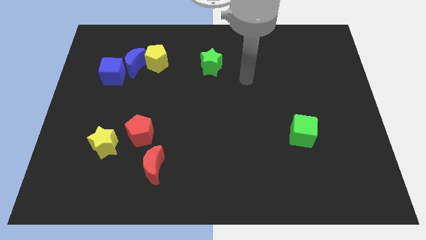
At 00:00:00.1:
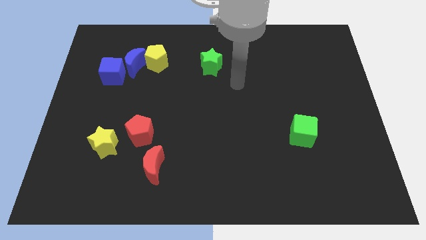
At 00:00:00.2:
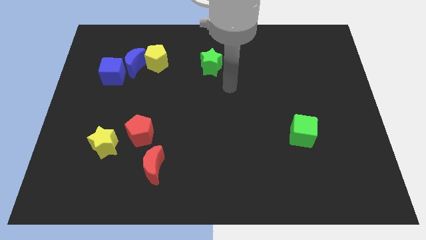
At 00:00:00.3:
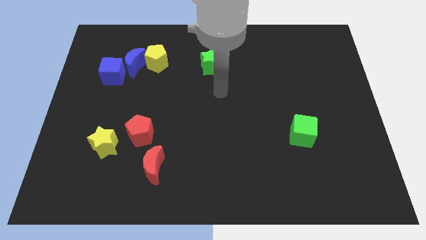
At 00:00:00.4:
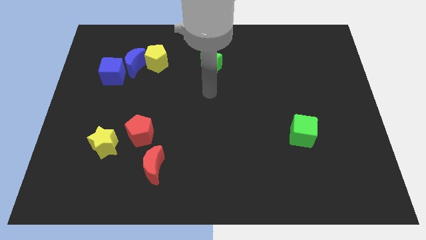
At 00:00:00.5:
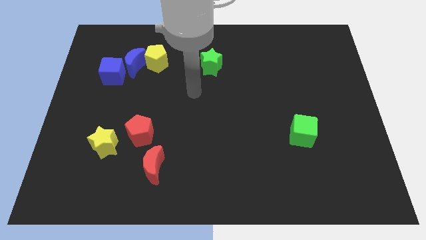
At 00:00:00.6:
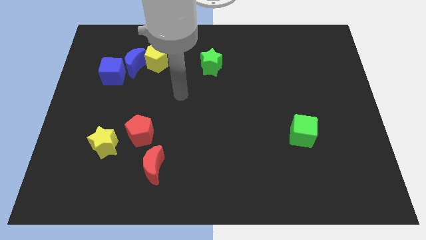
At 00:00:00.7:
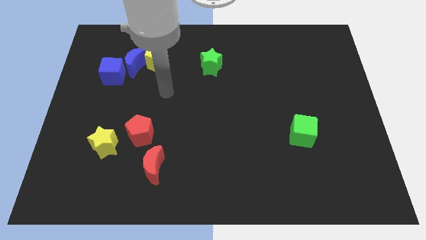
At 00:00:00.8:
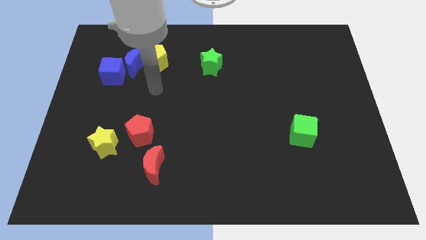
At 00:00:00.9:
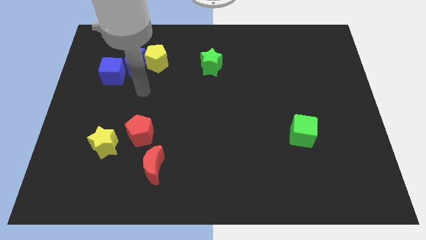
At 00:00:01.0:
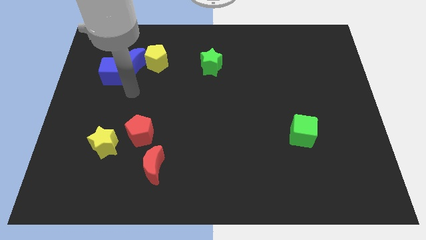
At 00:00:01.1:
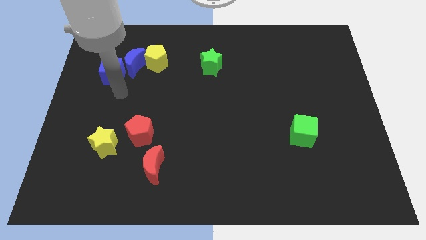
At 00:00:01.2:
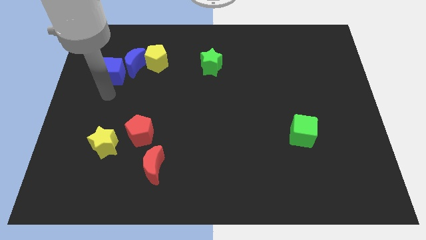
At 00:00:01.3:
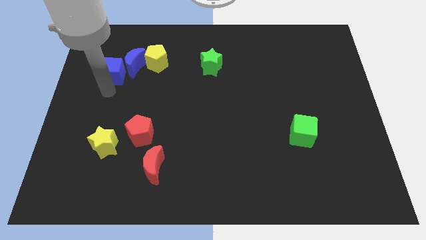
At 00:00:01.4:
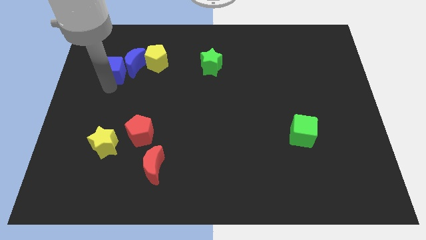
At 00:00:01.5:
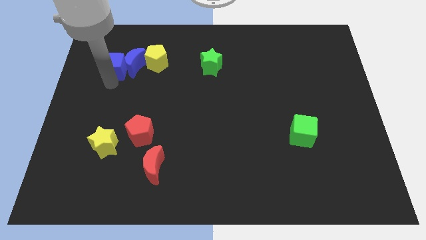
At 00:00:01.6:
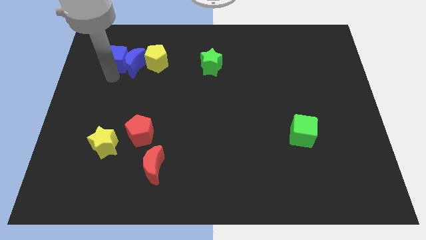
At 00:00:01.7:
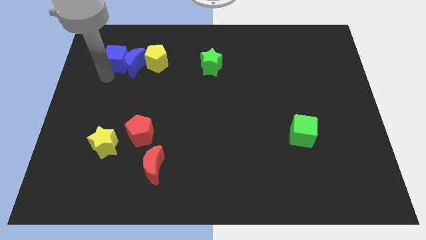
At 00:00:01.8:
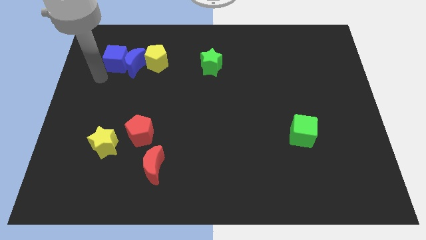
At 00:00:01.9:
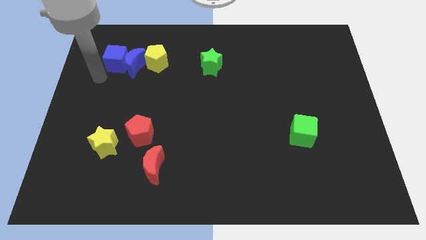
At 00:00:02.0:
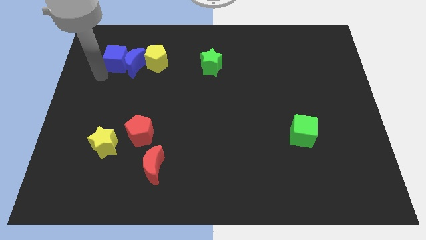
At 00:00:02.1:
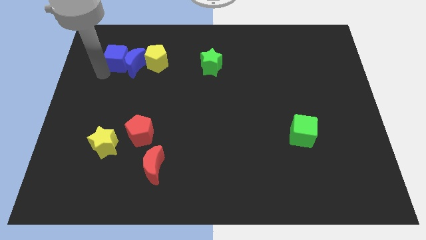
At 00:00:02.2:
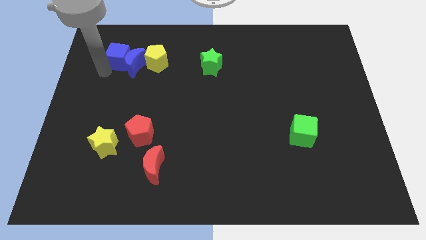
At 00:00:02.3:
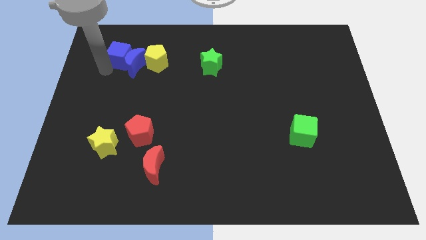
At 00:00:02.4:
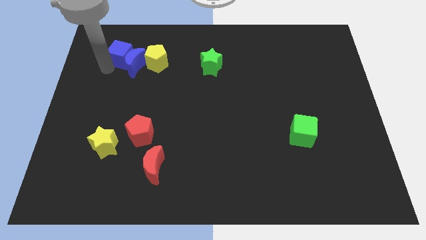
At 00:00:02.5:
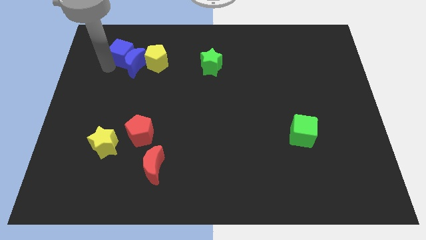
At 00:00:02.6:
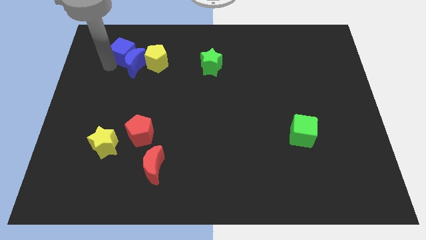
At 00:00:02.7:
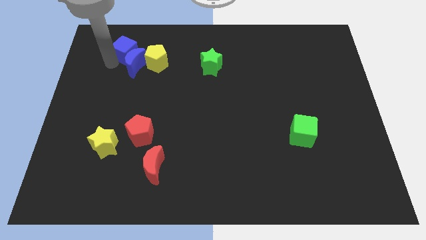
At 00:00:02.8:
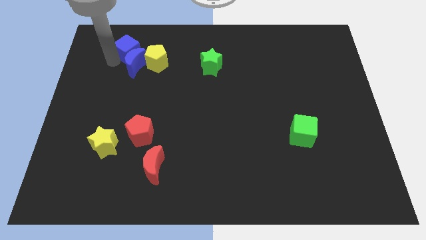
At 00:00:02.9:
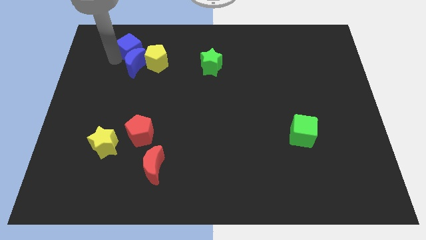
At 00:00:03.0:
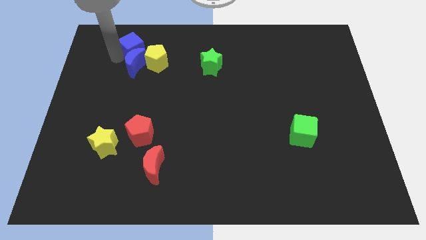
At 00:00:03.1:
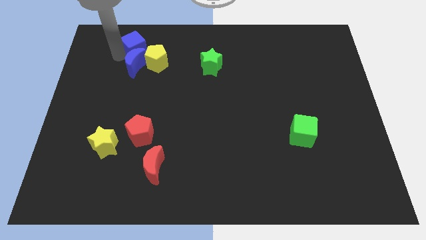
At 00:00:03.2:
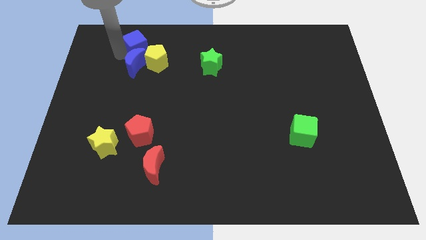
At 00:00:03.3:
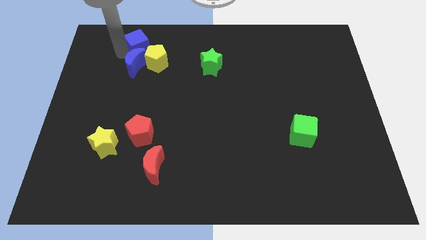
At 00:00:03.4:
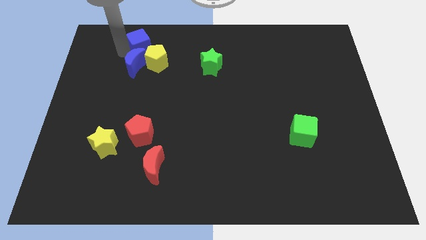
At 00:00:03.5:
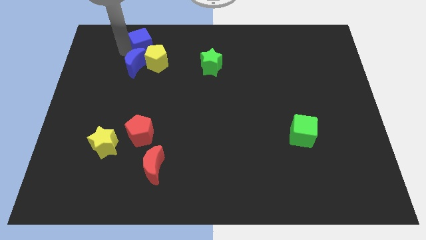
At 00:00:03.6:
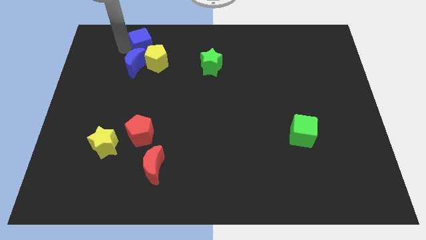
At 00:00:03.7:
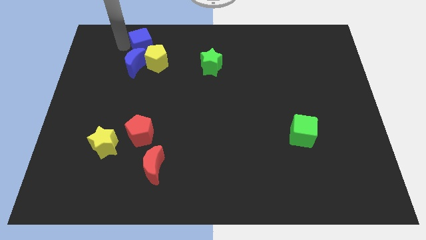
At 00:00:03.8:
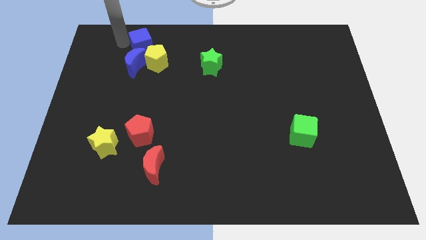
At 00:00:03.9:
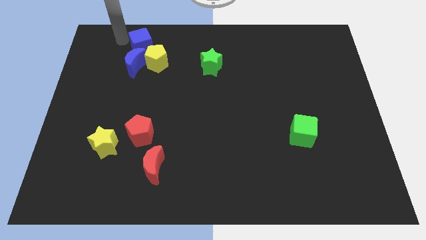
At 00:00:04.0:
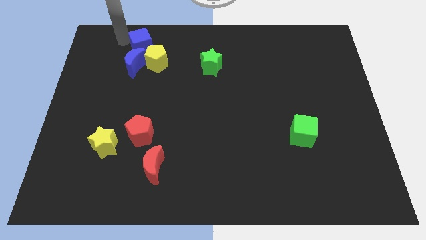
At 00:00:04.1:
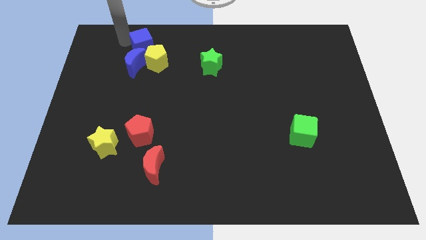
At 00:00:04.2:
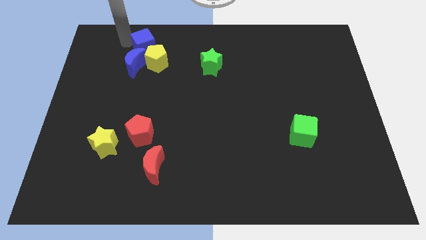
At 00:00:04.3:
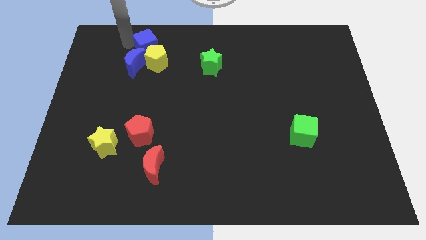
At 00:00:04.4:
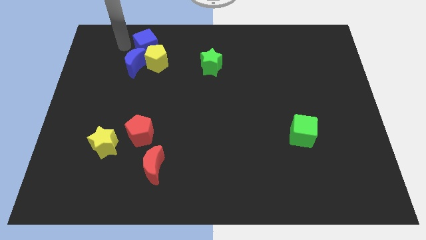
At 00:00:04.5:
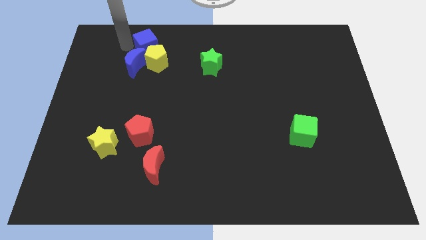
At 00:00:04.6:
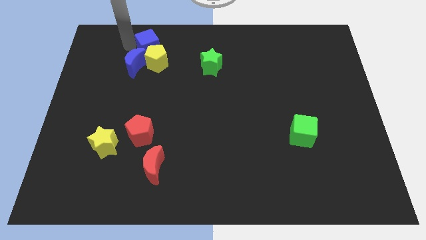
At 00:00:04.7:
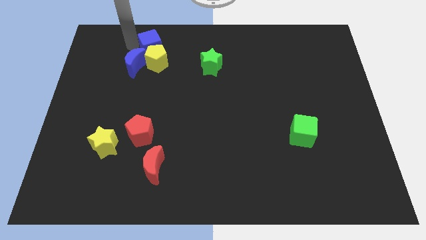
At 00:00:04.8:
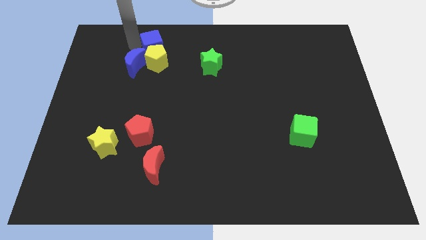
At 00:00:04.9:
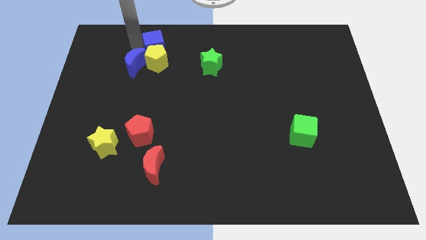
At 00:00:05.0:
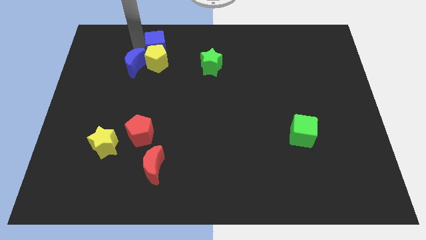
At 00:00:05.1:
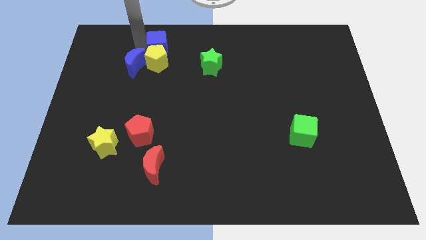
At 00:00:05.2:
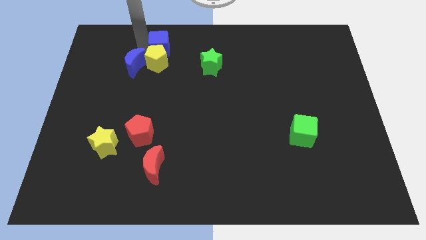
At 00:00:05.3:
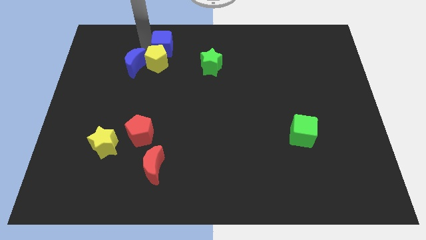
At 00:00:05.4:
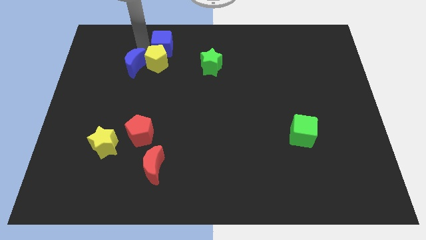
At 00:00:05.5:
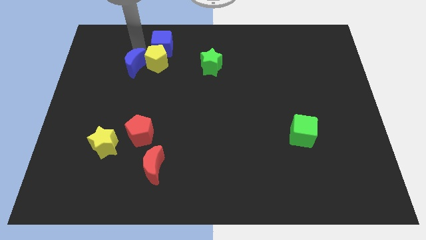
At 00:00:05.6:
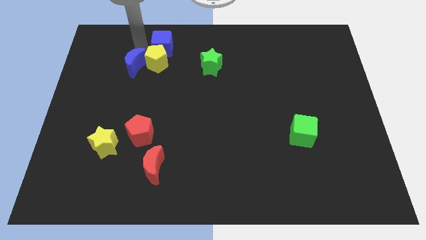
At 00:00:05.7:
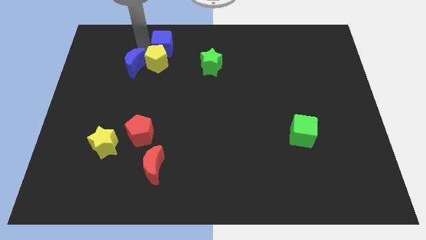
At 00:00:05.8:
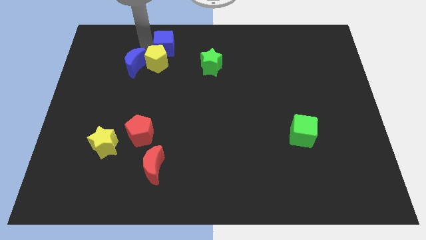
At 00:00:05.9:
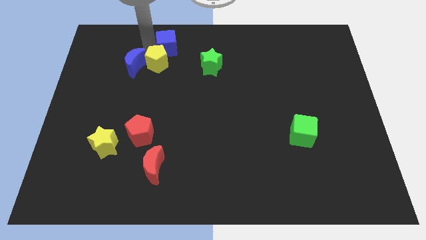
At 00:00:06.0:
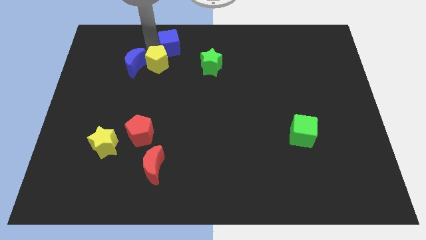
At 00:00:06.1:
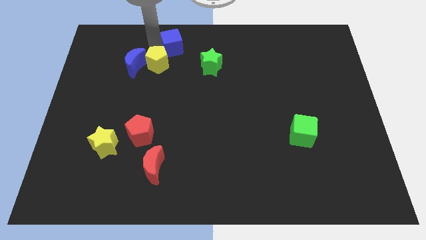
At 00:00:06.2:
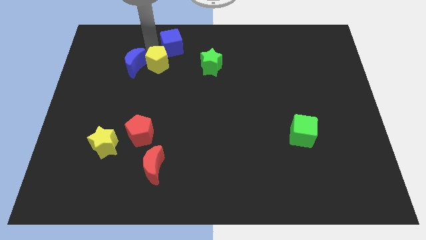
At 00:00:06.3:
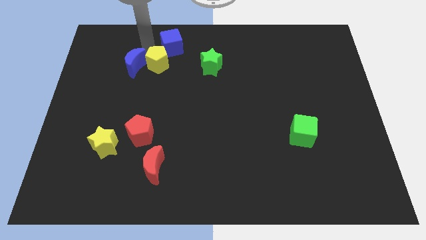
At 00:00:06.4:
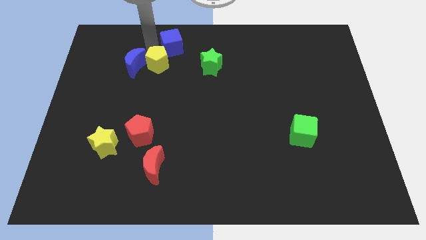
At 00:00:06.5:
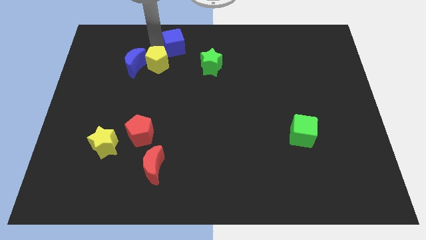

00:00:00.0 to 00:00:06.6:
slide the blue cube to the top side
